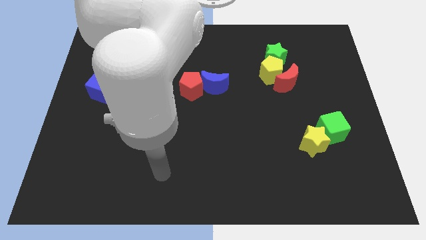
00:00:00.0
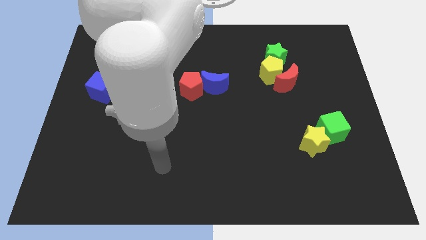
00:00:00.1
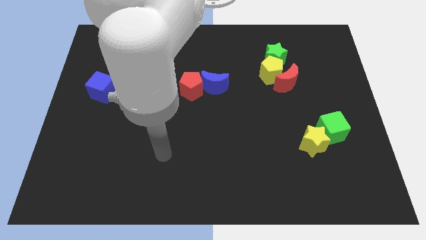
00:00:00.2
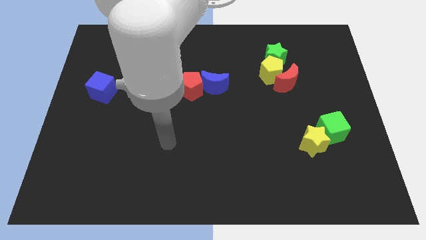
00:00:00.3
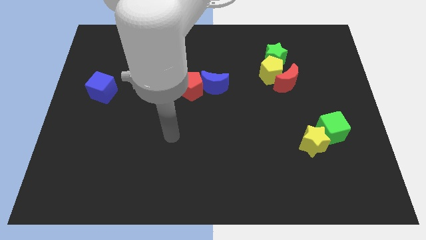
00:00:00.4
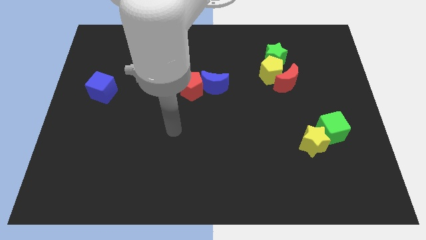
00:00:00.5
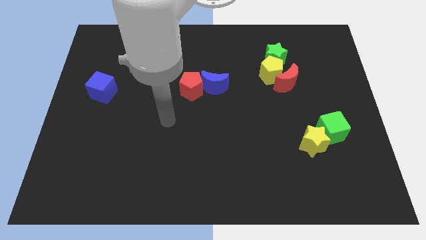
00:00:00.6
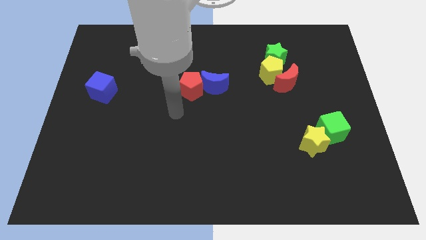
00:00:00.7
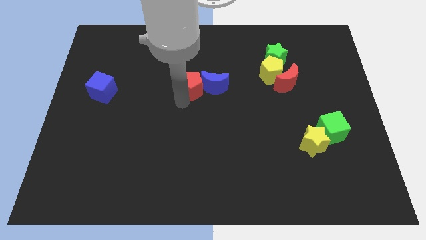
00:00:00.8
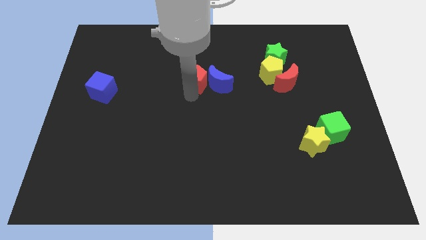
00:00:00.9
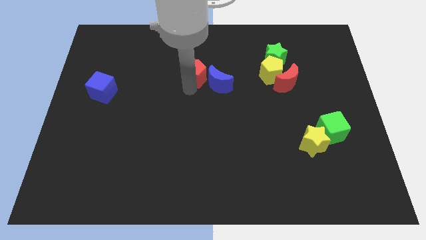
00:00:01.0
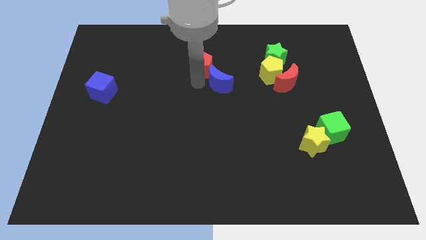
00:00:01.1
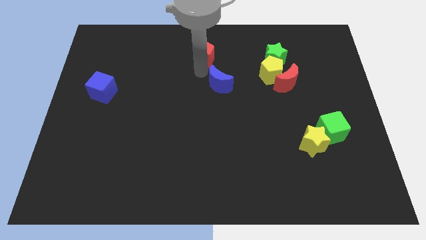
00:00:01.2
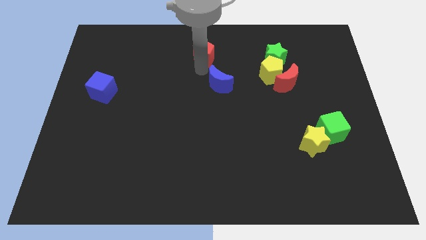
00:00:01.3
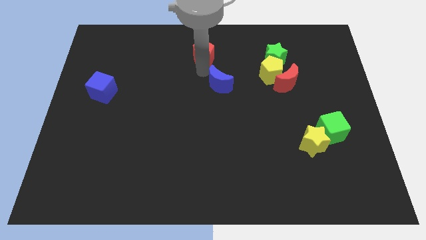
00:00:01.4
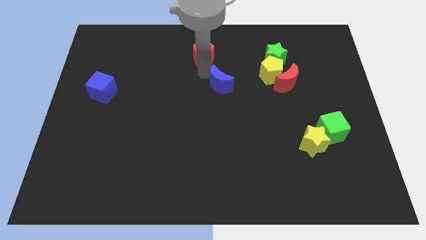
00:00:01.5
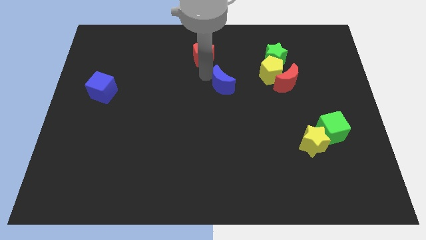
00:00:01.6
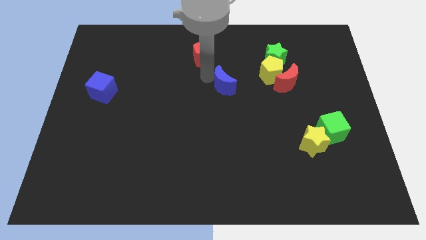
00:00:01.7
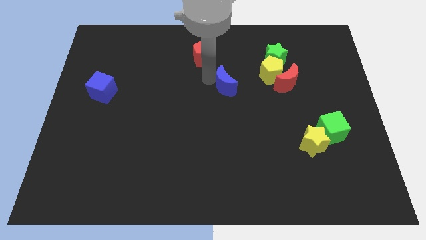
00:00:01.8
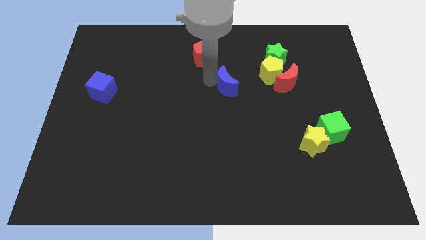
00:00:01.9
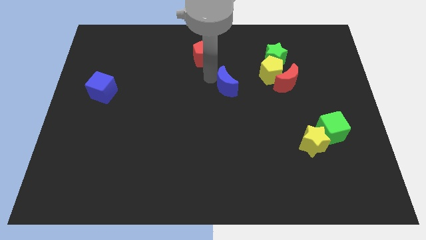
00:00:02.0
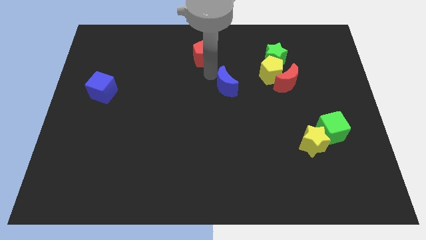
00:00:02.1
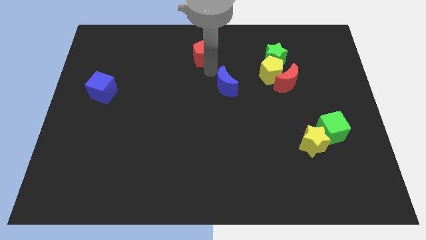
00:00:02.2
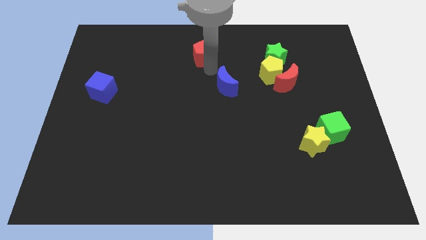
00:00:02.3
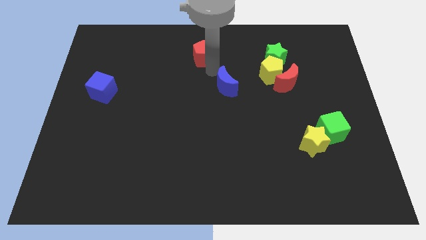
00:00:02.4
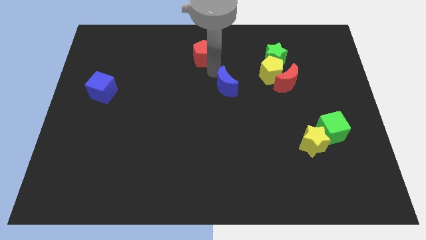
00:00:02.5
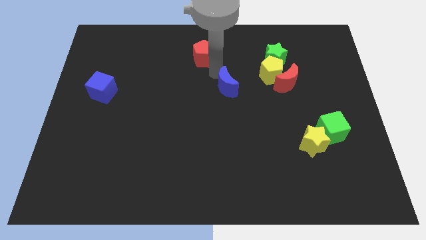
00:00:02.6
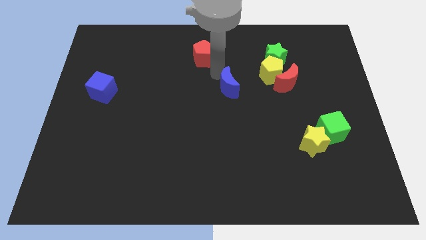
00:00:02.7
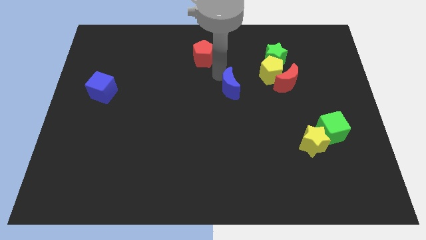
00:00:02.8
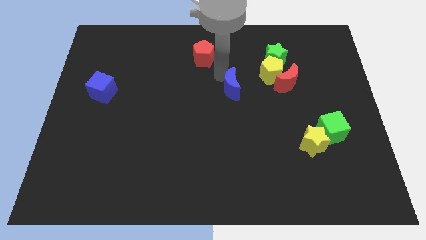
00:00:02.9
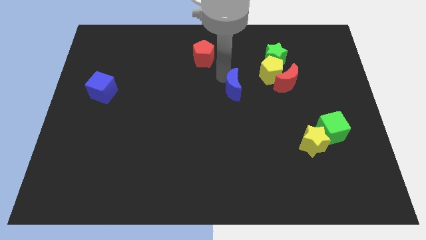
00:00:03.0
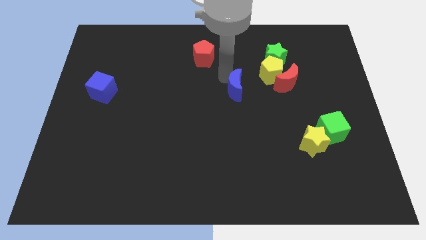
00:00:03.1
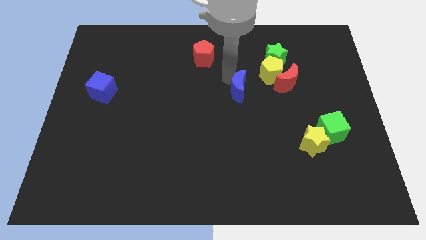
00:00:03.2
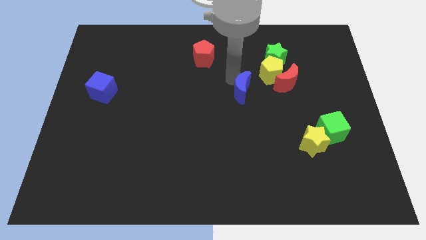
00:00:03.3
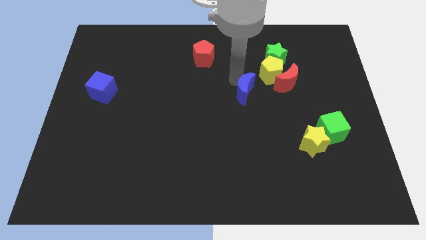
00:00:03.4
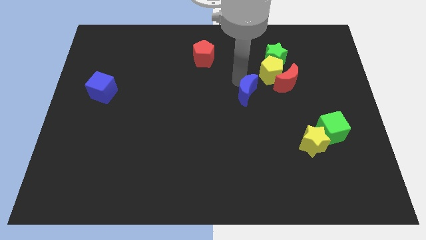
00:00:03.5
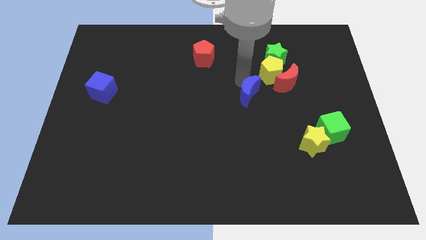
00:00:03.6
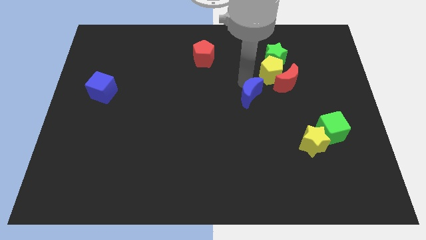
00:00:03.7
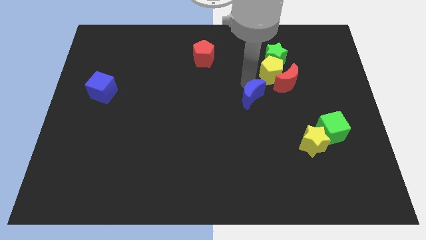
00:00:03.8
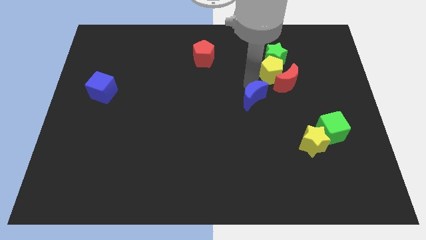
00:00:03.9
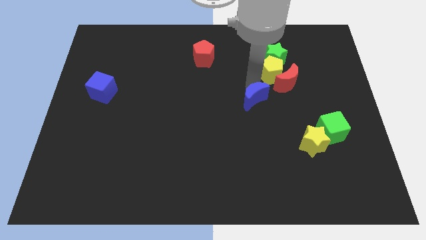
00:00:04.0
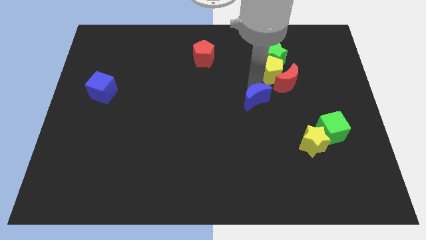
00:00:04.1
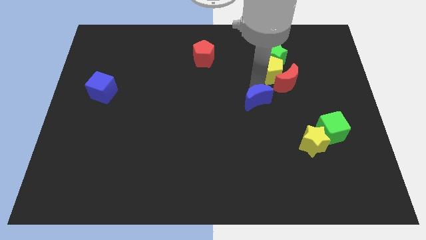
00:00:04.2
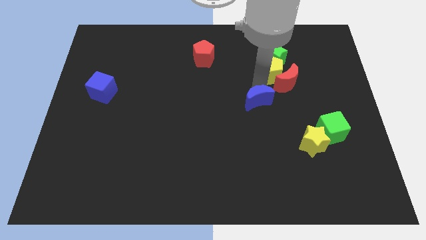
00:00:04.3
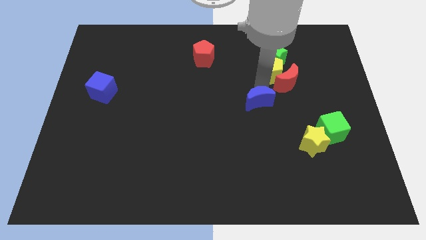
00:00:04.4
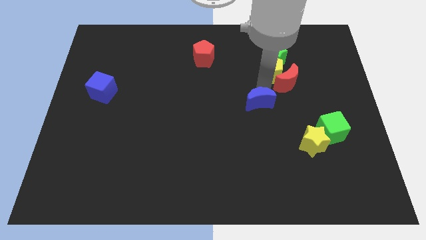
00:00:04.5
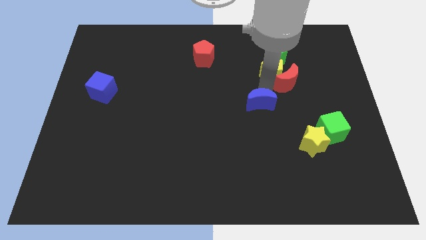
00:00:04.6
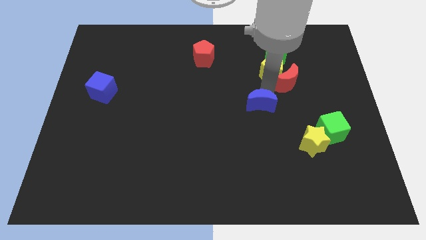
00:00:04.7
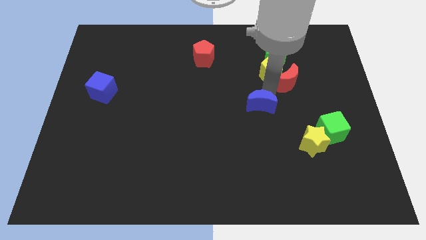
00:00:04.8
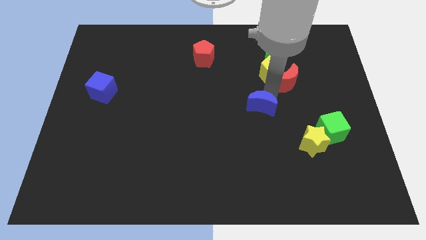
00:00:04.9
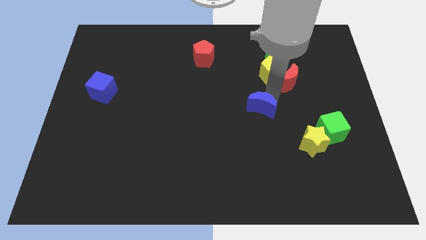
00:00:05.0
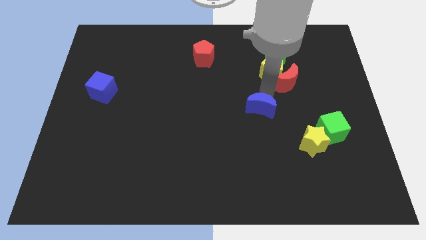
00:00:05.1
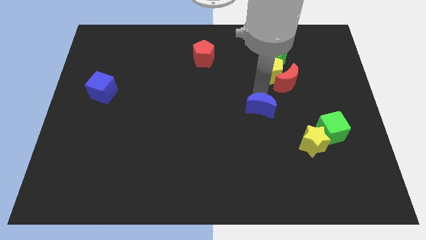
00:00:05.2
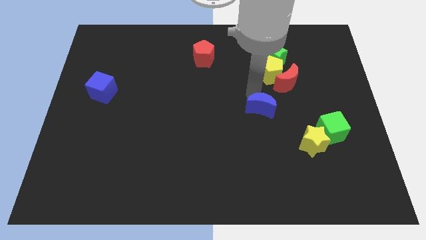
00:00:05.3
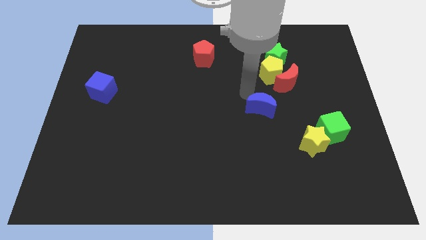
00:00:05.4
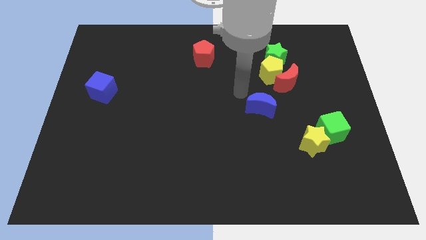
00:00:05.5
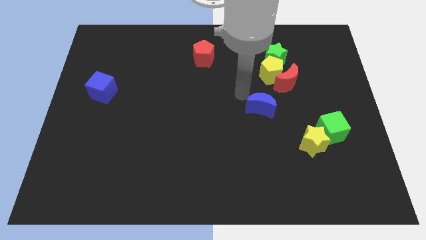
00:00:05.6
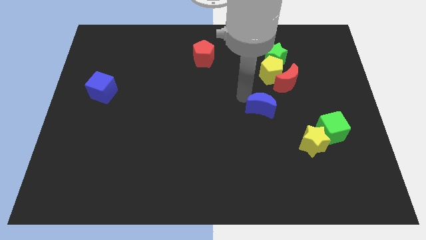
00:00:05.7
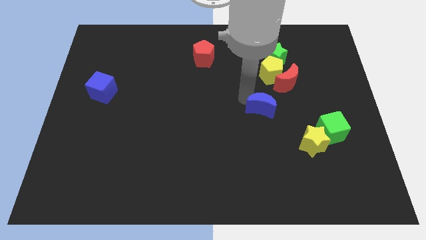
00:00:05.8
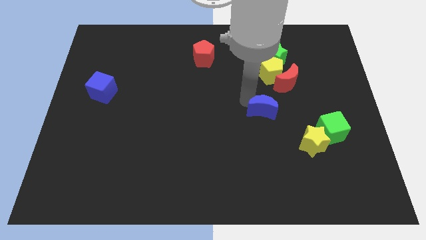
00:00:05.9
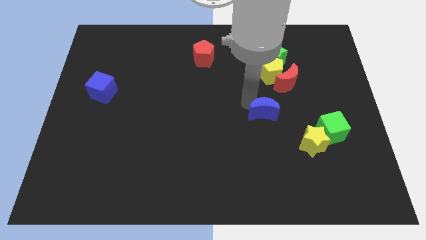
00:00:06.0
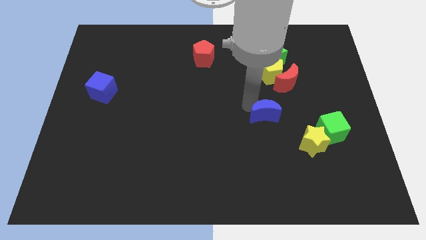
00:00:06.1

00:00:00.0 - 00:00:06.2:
slide the blue moon diagonally up and to the left of the yellow star

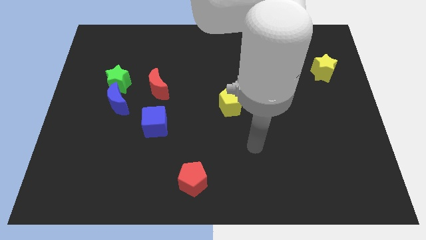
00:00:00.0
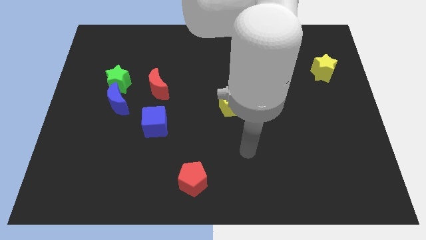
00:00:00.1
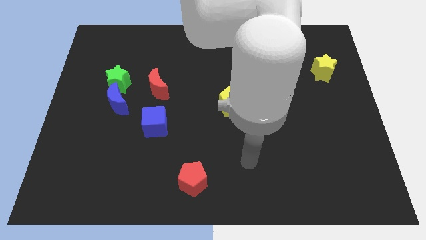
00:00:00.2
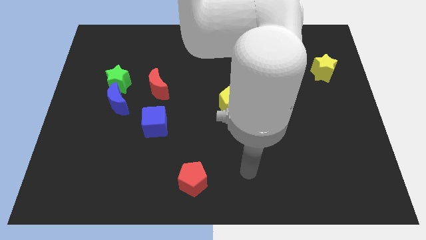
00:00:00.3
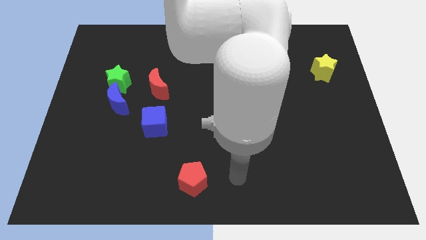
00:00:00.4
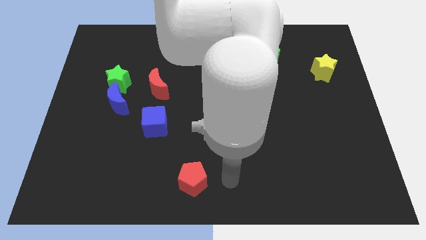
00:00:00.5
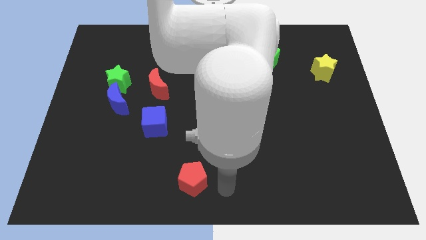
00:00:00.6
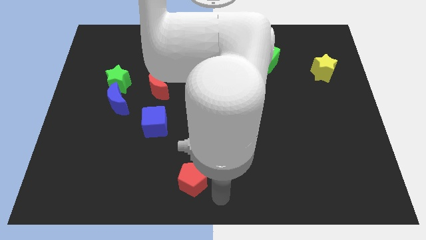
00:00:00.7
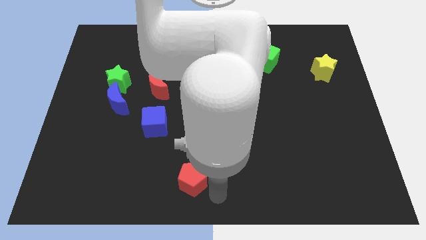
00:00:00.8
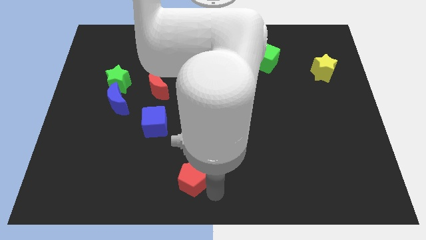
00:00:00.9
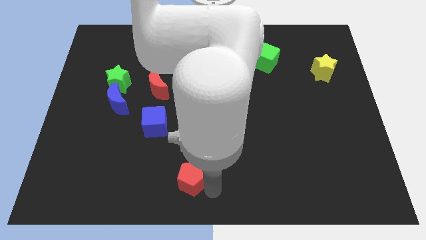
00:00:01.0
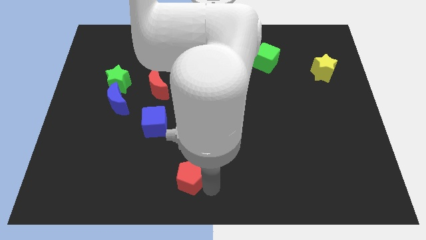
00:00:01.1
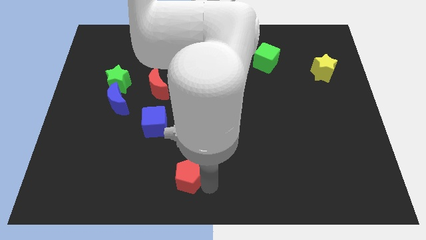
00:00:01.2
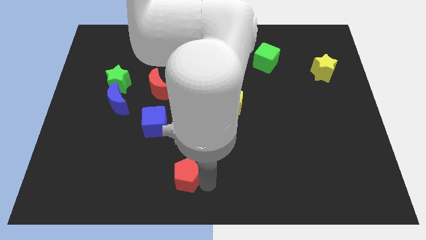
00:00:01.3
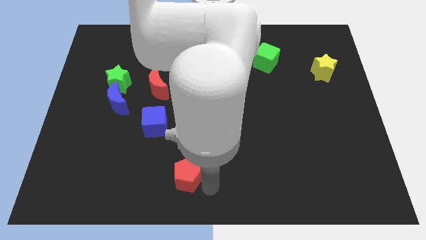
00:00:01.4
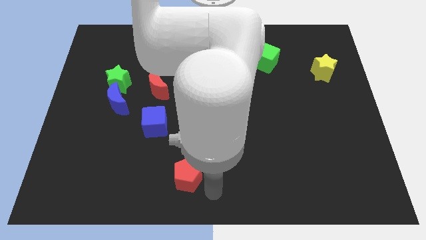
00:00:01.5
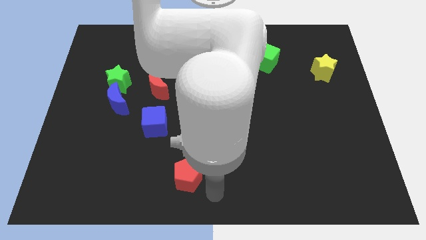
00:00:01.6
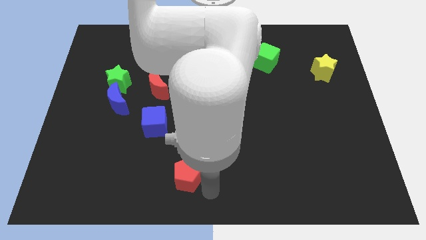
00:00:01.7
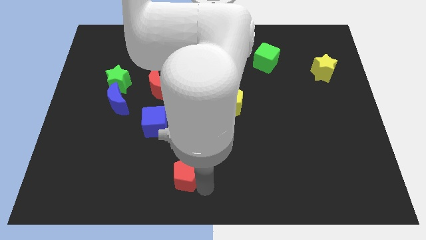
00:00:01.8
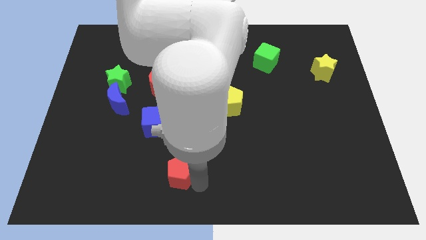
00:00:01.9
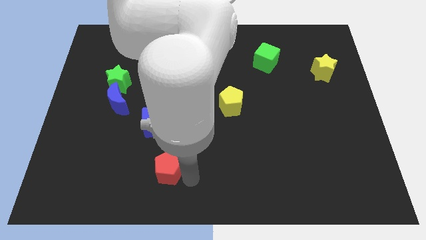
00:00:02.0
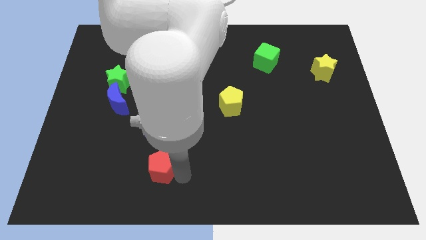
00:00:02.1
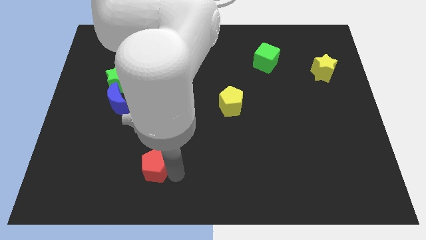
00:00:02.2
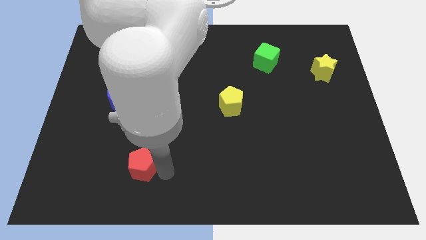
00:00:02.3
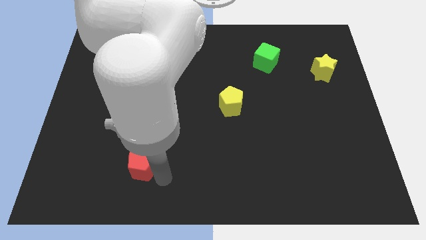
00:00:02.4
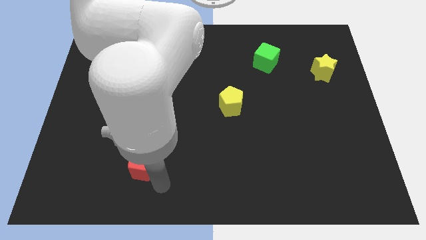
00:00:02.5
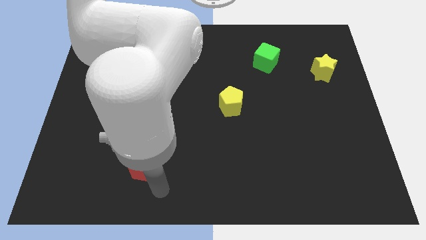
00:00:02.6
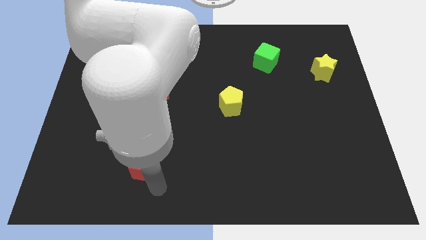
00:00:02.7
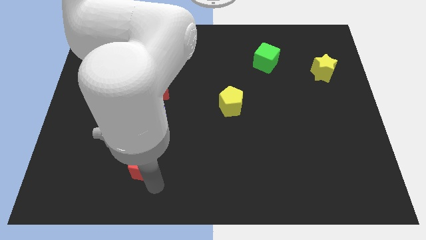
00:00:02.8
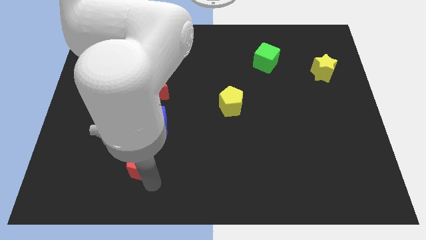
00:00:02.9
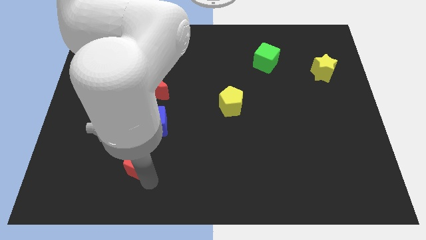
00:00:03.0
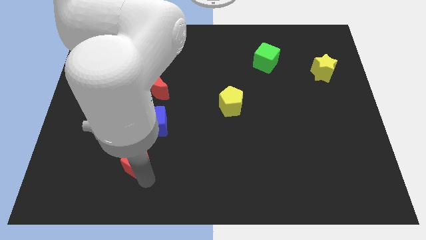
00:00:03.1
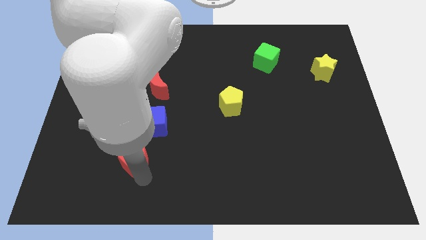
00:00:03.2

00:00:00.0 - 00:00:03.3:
push the red pentagon to the bottom left side of the blue cube
